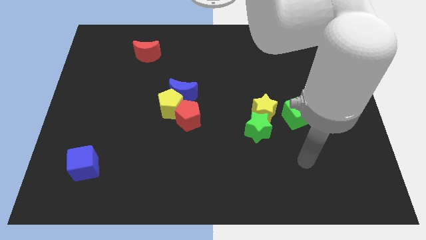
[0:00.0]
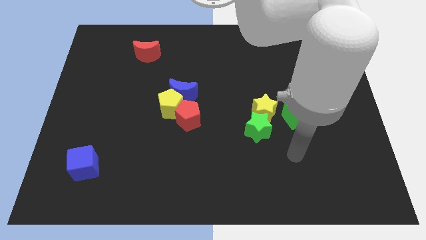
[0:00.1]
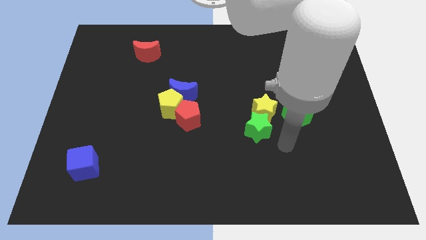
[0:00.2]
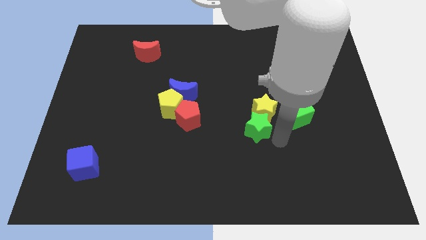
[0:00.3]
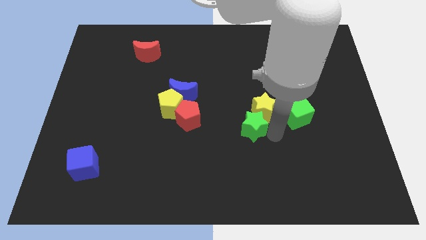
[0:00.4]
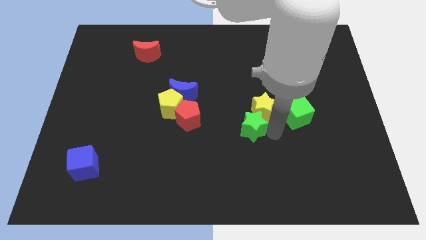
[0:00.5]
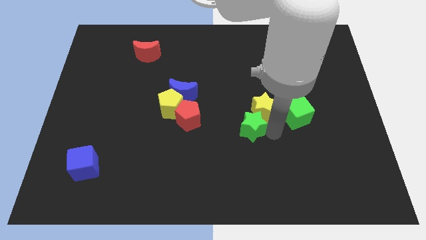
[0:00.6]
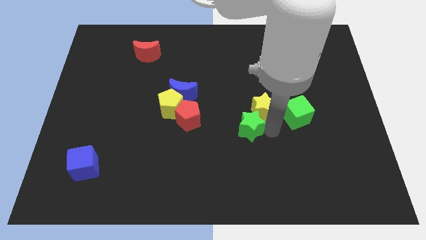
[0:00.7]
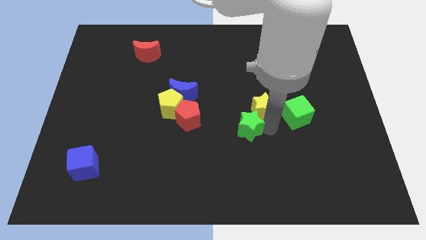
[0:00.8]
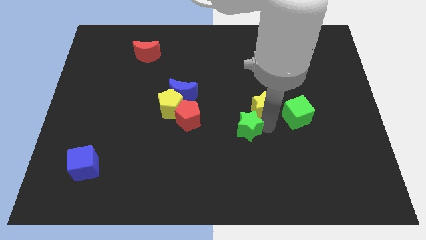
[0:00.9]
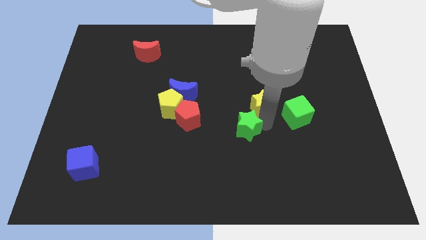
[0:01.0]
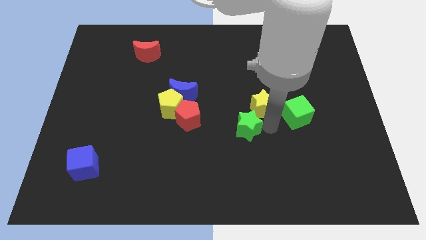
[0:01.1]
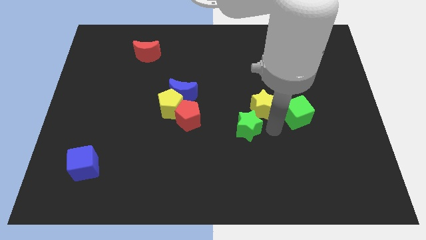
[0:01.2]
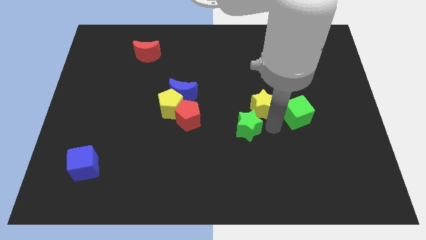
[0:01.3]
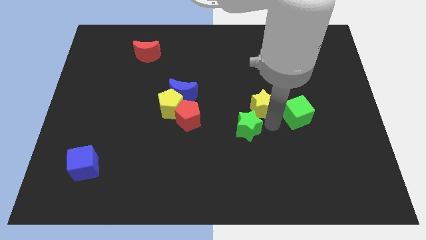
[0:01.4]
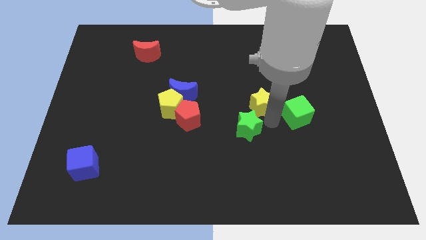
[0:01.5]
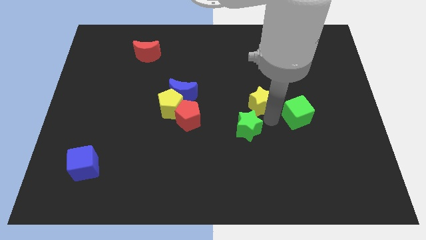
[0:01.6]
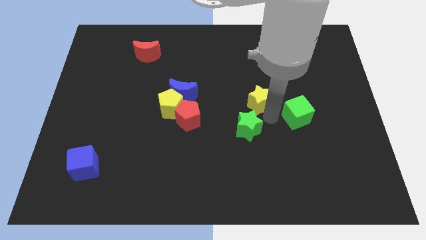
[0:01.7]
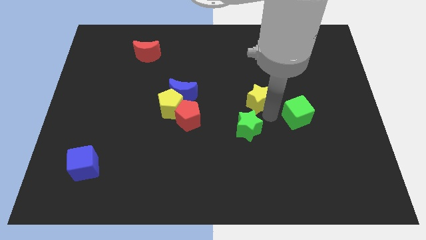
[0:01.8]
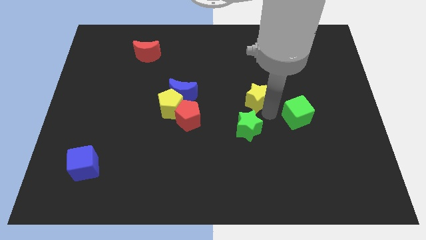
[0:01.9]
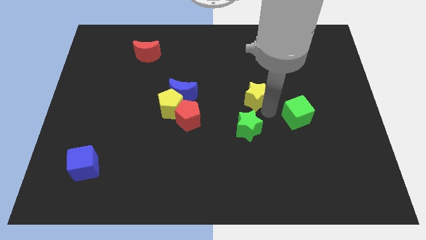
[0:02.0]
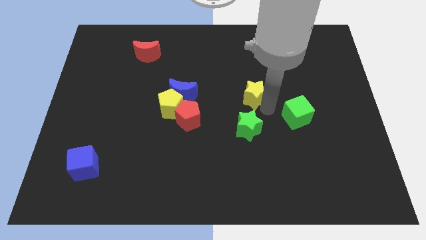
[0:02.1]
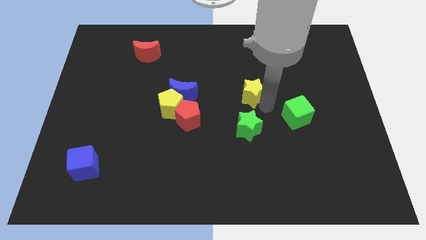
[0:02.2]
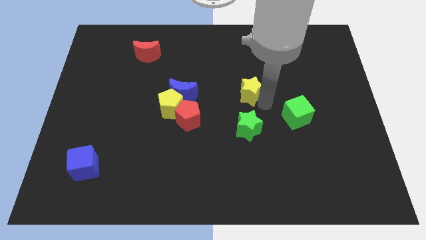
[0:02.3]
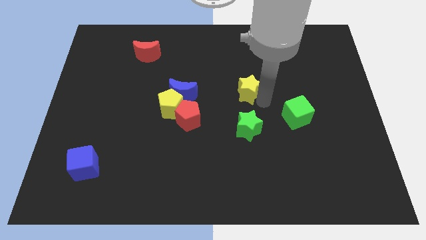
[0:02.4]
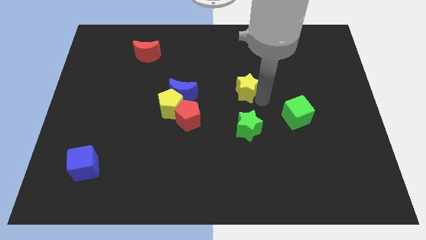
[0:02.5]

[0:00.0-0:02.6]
slightly slide the yellow star diagonally up and left

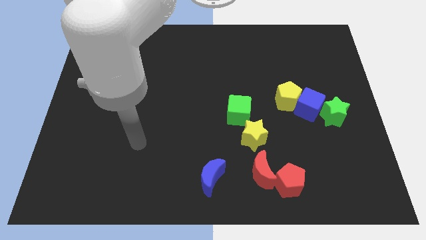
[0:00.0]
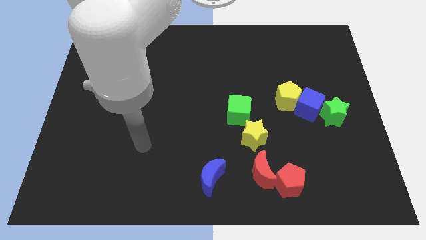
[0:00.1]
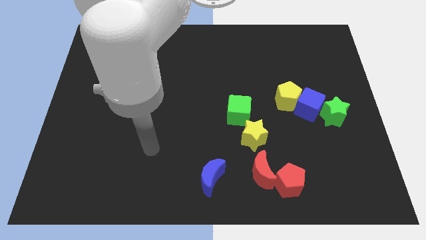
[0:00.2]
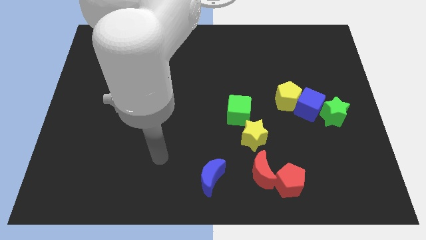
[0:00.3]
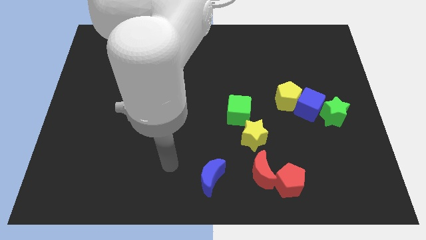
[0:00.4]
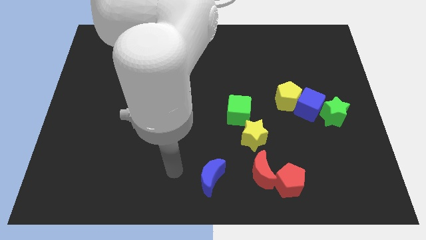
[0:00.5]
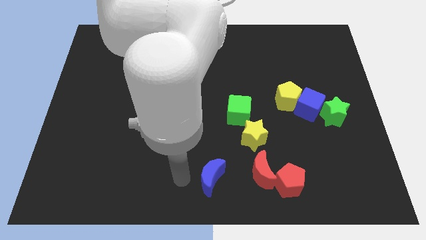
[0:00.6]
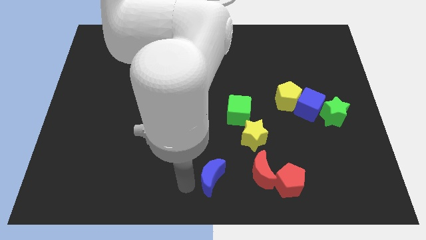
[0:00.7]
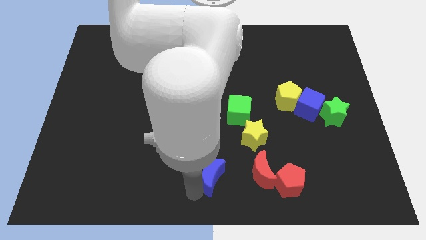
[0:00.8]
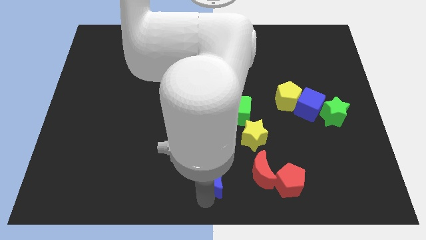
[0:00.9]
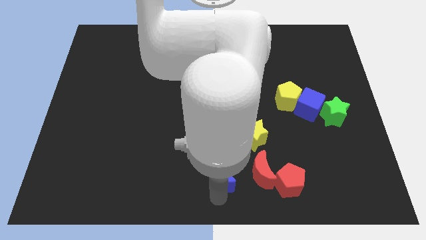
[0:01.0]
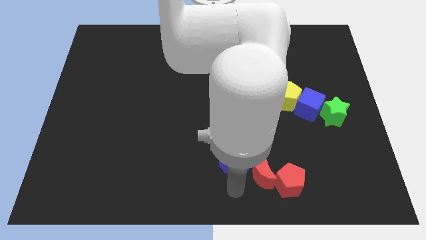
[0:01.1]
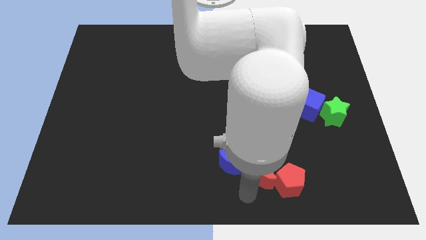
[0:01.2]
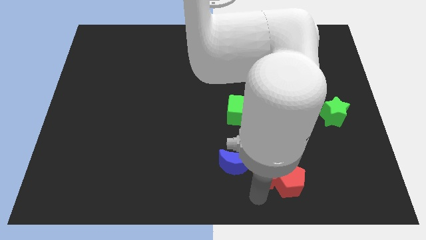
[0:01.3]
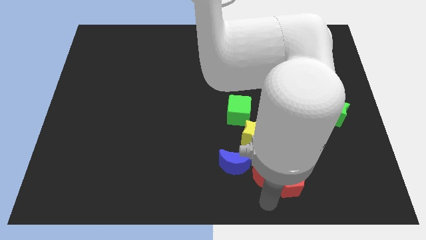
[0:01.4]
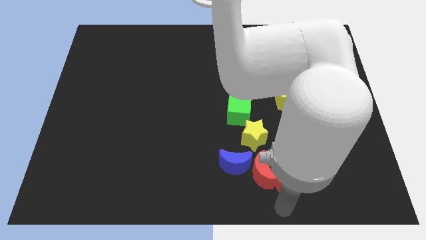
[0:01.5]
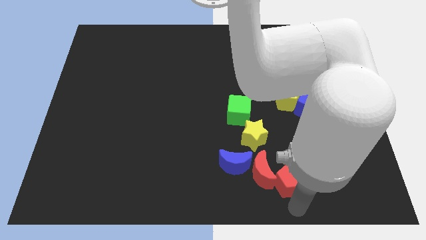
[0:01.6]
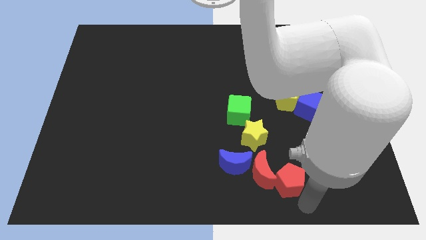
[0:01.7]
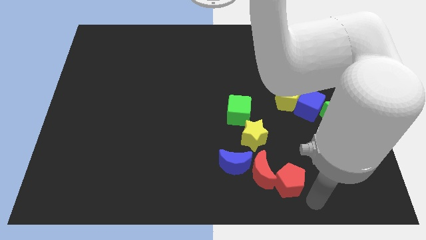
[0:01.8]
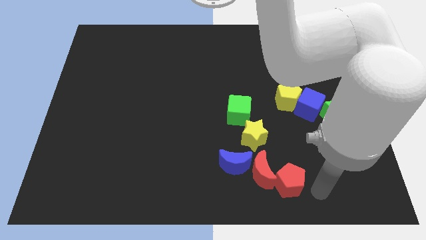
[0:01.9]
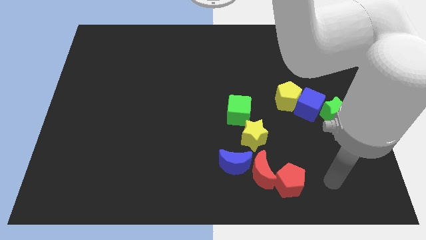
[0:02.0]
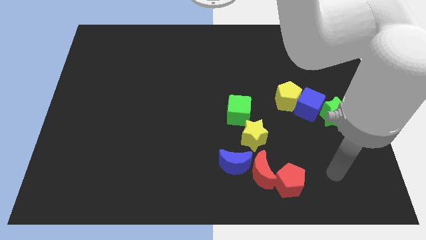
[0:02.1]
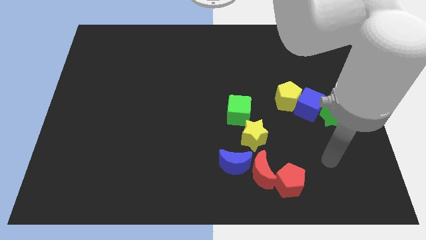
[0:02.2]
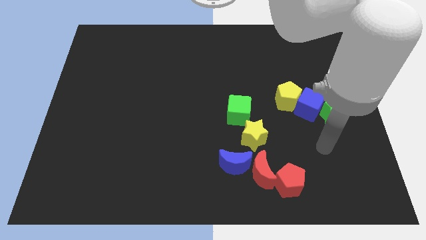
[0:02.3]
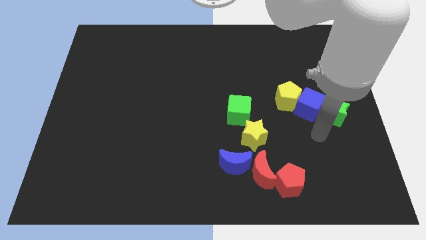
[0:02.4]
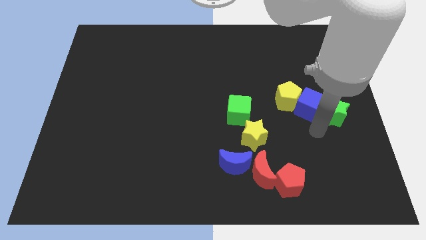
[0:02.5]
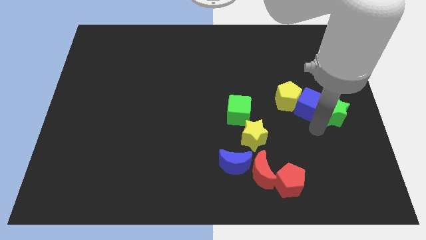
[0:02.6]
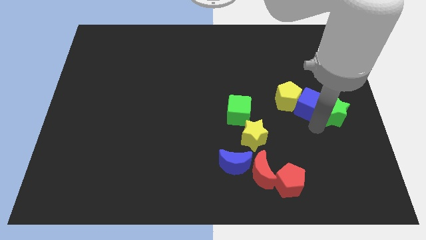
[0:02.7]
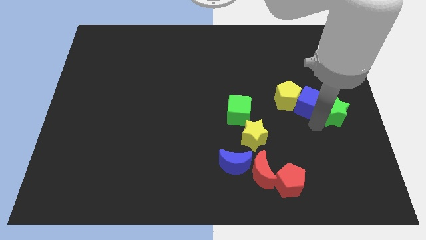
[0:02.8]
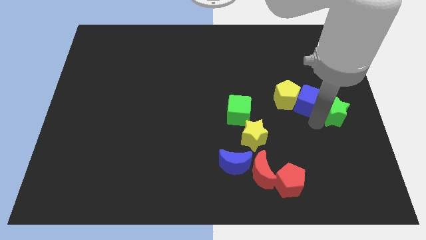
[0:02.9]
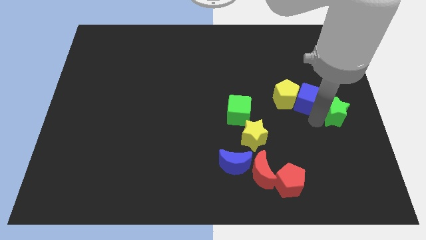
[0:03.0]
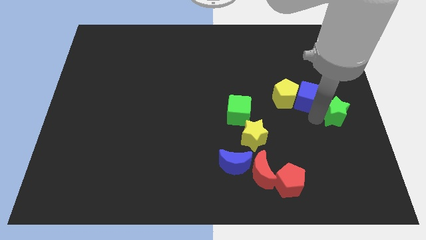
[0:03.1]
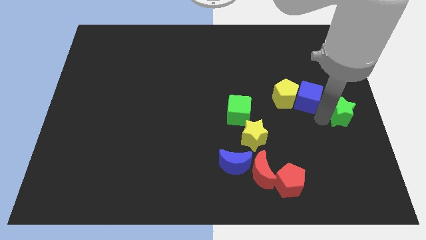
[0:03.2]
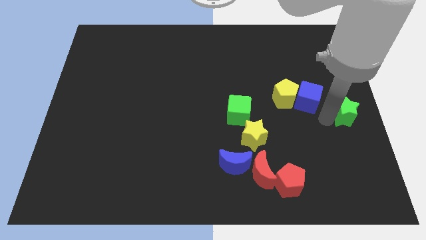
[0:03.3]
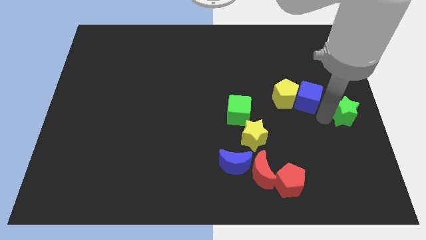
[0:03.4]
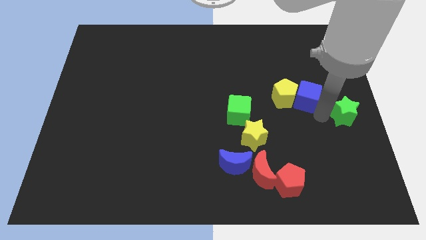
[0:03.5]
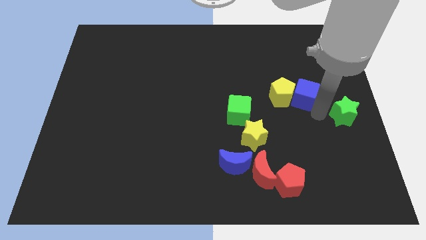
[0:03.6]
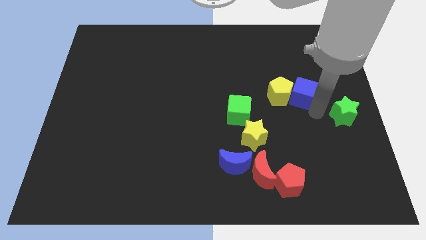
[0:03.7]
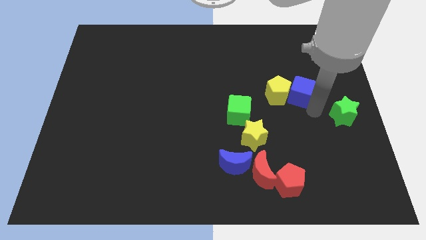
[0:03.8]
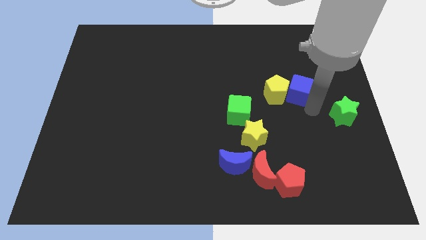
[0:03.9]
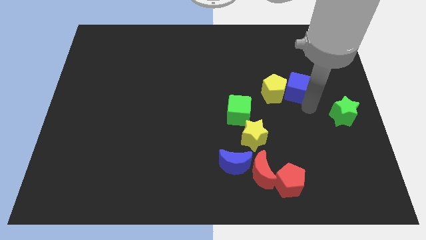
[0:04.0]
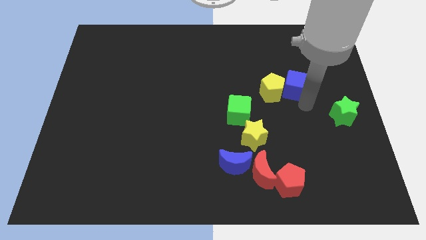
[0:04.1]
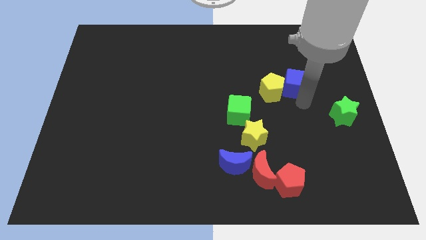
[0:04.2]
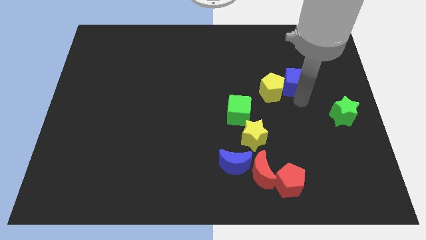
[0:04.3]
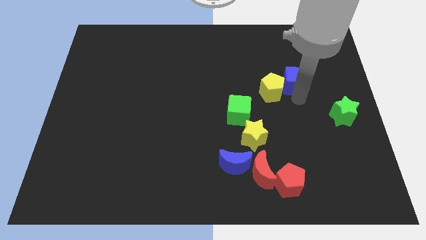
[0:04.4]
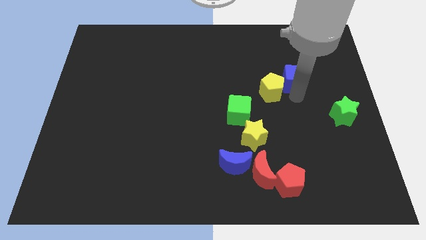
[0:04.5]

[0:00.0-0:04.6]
move the blue cube upwards and to the left diagonally a bit

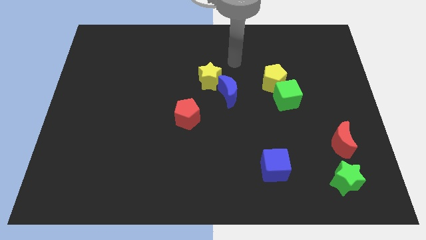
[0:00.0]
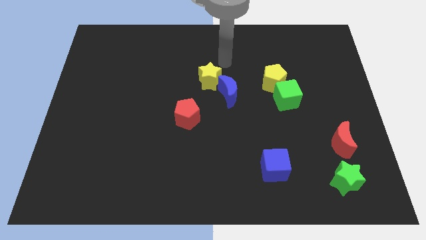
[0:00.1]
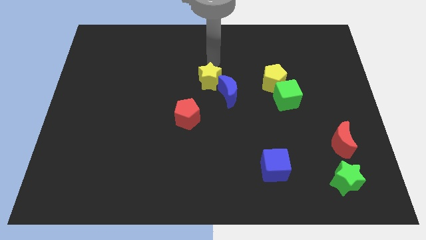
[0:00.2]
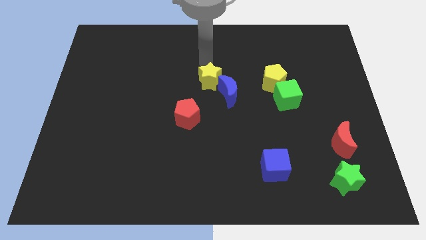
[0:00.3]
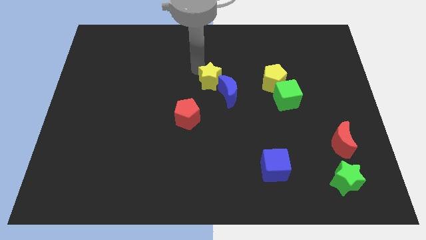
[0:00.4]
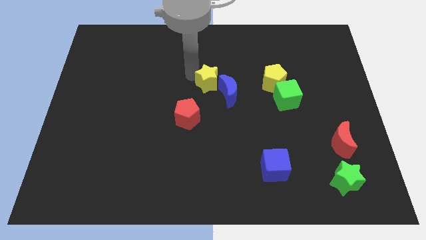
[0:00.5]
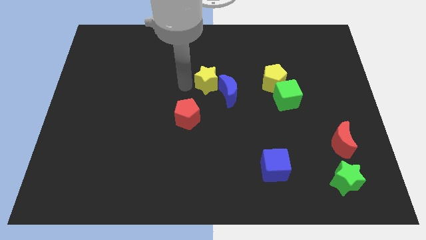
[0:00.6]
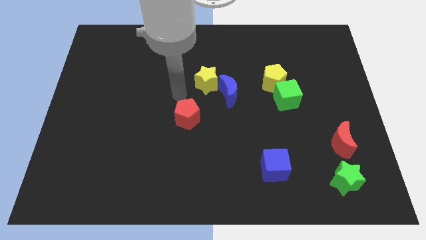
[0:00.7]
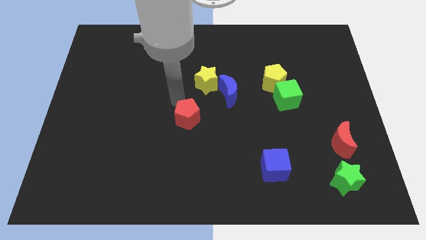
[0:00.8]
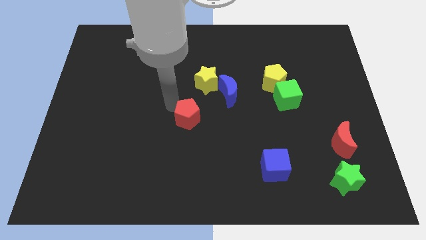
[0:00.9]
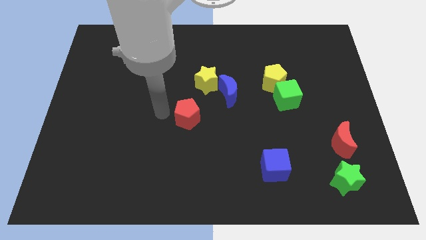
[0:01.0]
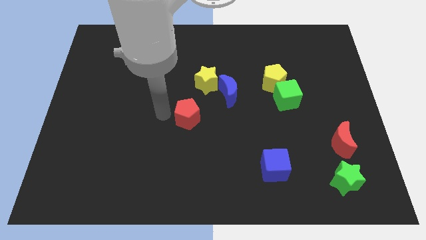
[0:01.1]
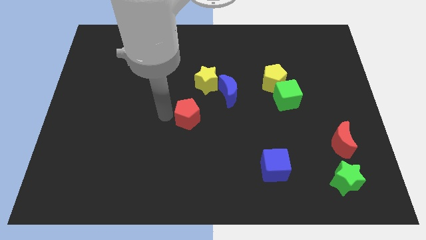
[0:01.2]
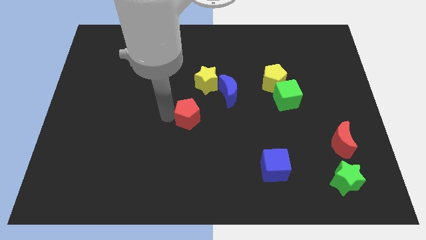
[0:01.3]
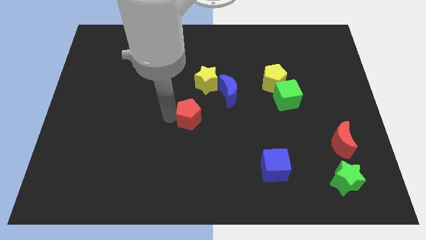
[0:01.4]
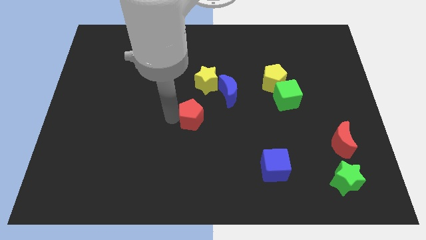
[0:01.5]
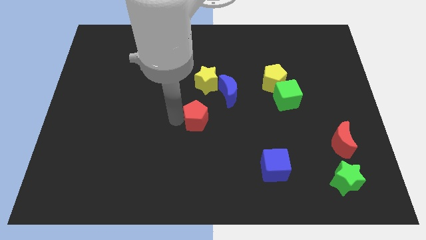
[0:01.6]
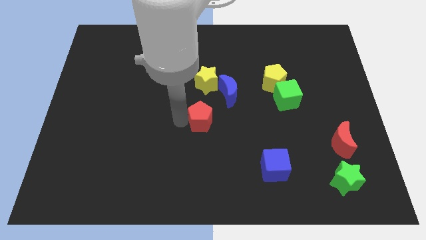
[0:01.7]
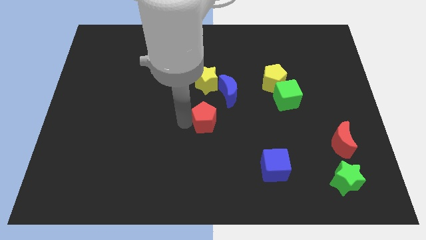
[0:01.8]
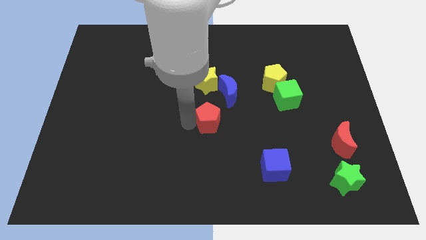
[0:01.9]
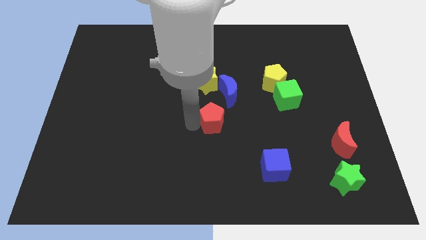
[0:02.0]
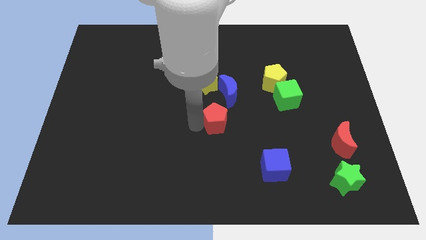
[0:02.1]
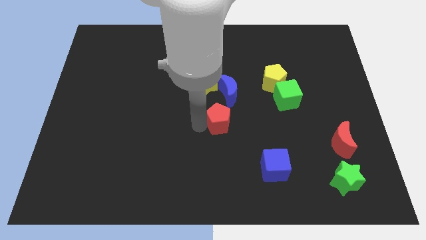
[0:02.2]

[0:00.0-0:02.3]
move the red pentagon a little bit to the right
